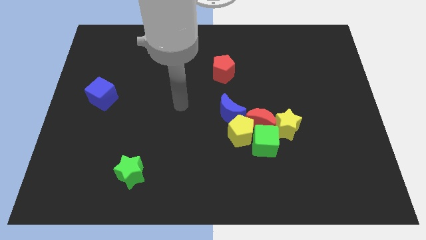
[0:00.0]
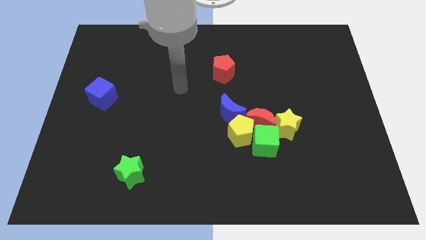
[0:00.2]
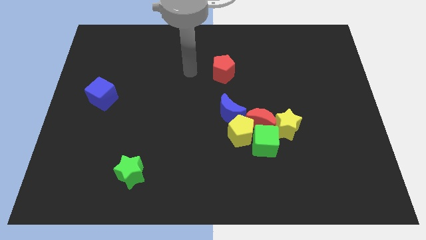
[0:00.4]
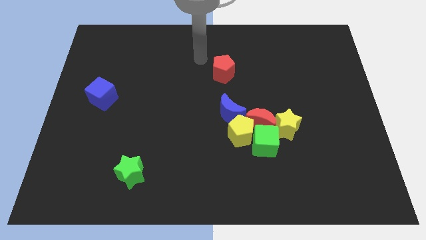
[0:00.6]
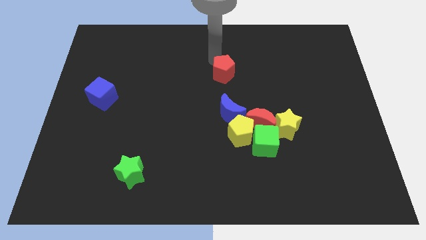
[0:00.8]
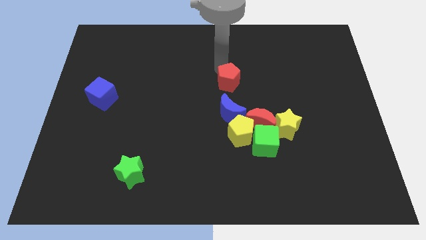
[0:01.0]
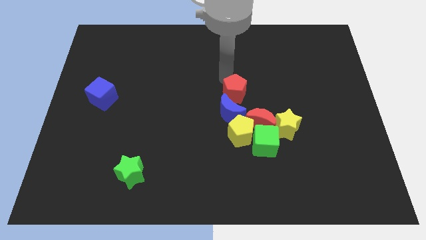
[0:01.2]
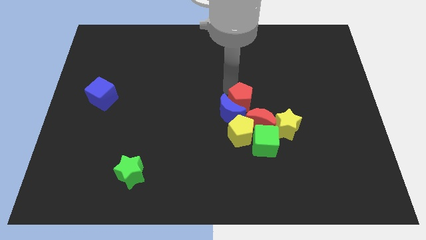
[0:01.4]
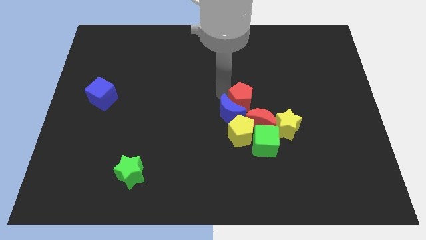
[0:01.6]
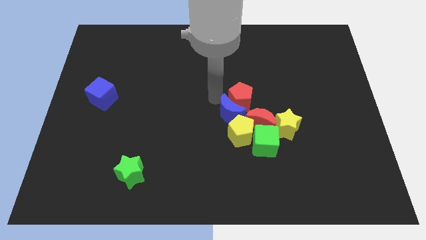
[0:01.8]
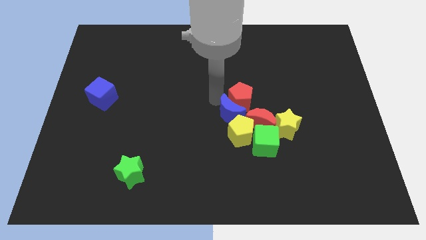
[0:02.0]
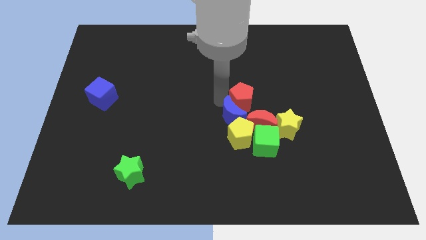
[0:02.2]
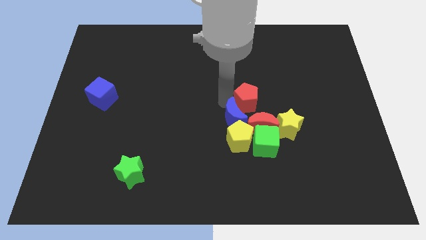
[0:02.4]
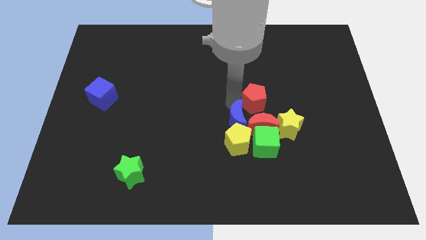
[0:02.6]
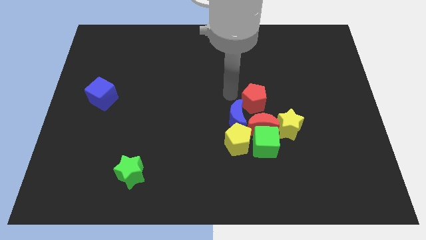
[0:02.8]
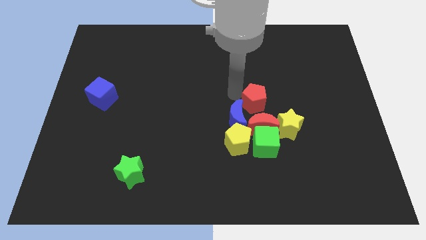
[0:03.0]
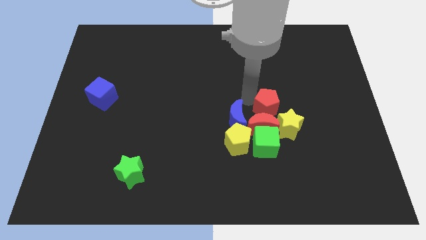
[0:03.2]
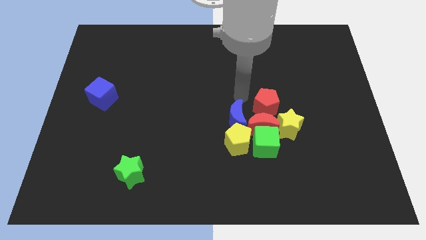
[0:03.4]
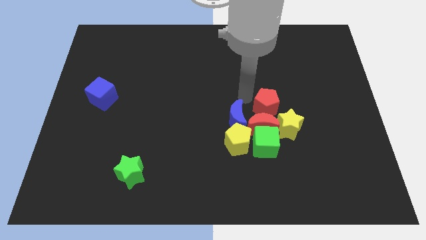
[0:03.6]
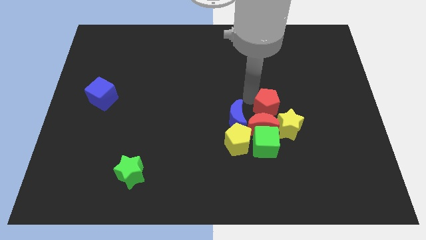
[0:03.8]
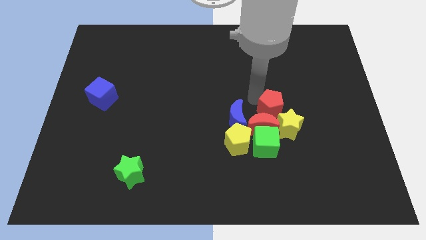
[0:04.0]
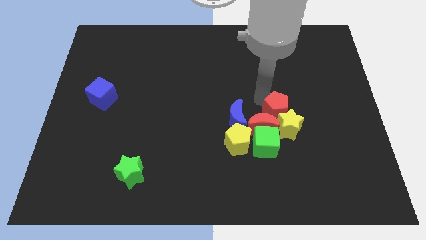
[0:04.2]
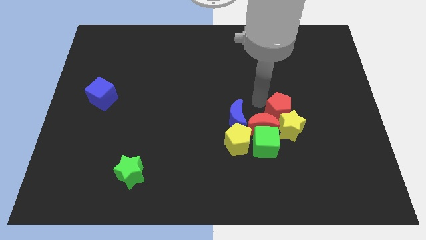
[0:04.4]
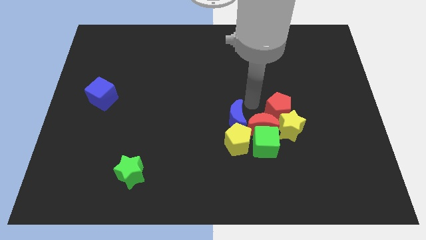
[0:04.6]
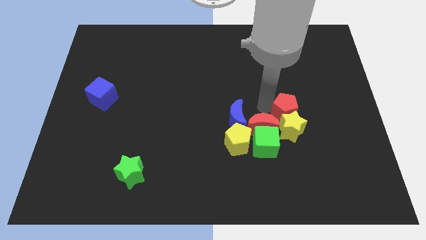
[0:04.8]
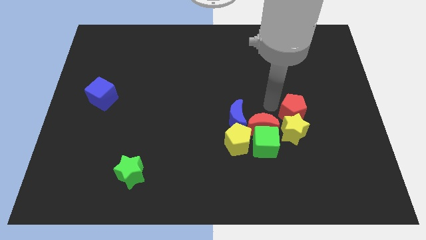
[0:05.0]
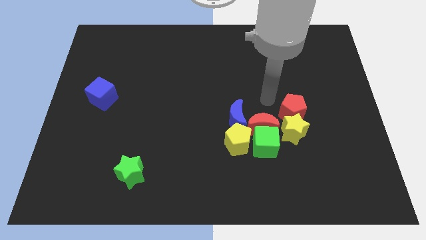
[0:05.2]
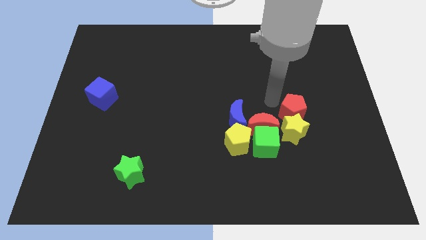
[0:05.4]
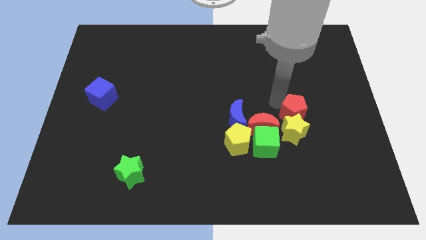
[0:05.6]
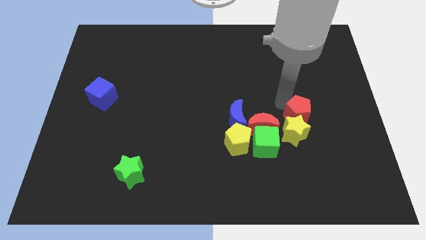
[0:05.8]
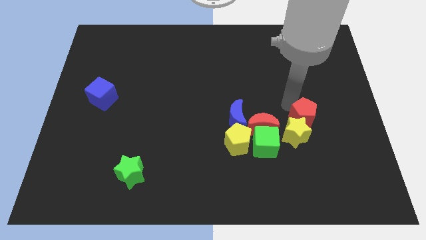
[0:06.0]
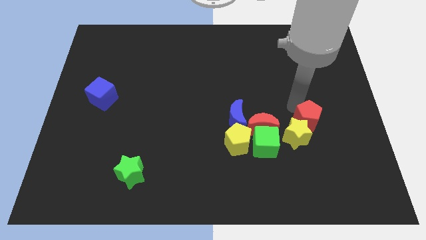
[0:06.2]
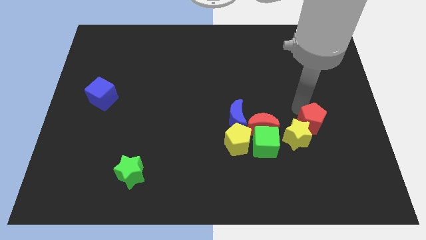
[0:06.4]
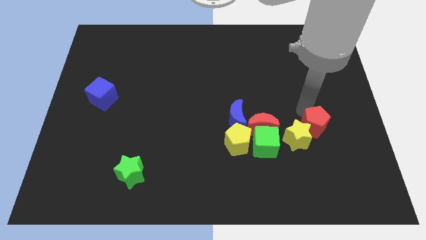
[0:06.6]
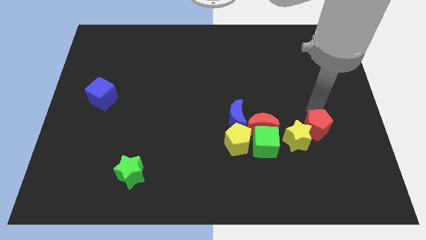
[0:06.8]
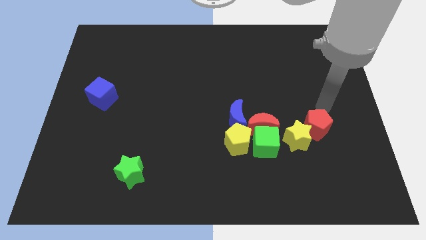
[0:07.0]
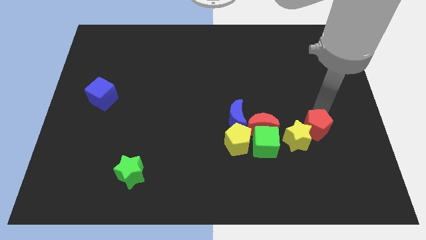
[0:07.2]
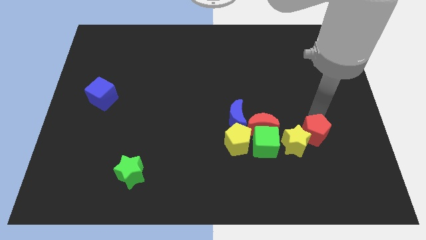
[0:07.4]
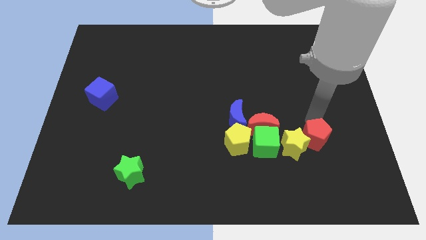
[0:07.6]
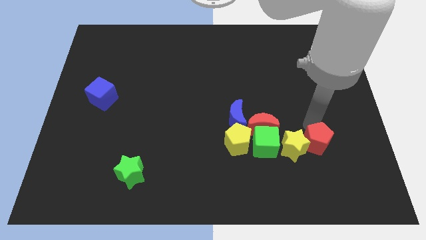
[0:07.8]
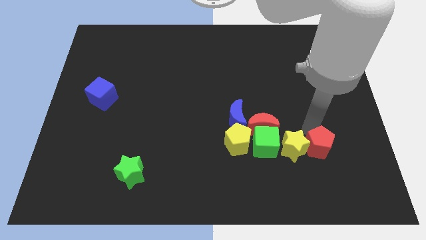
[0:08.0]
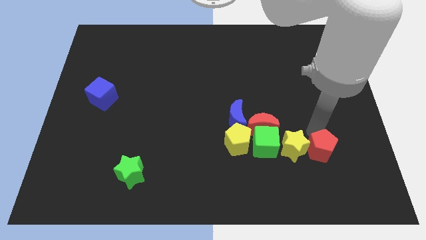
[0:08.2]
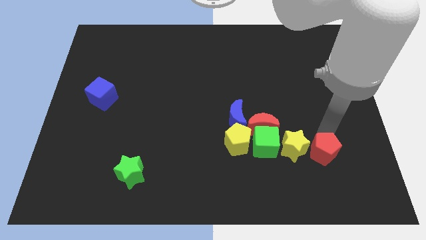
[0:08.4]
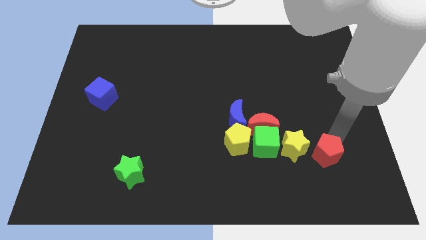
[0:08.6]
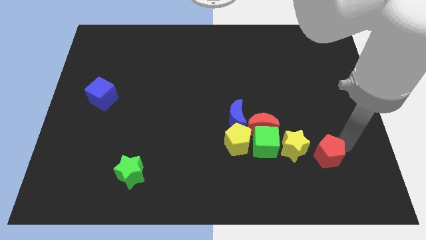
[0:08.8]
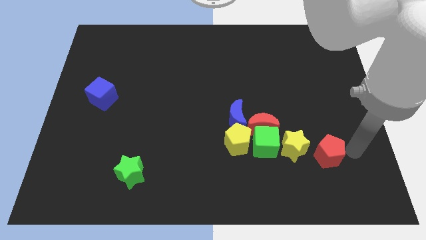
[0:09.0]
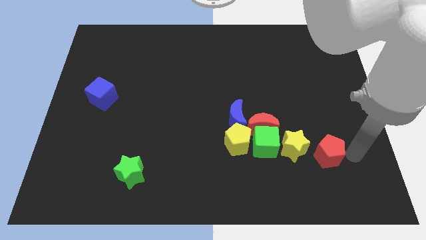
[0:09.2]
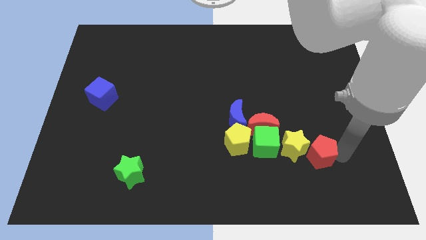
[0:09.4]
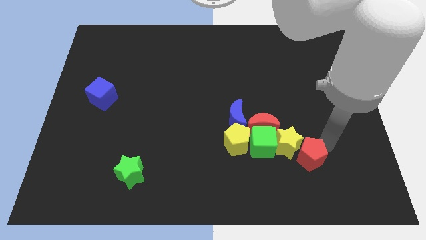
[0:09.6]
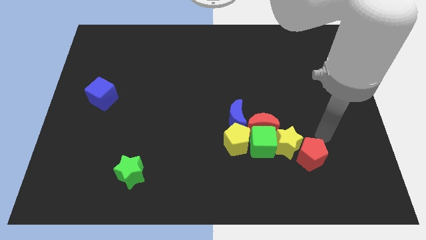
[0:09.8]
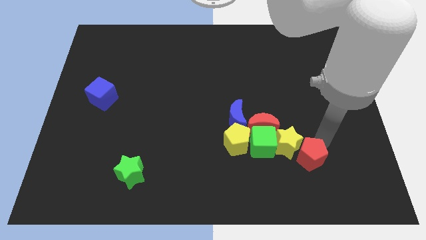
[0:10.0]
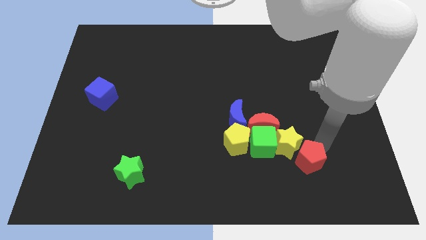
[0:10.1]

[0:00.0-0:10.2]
push the red pentagon to the bottom side of the yellow star

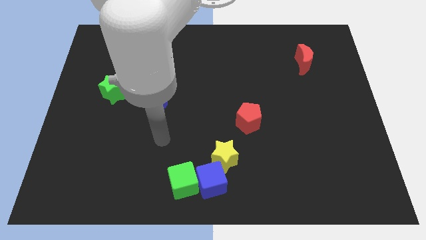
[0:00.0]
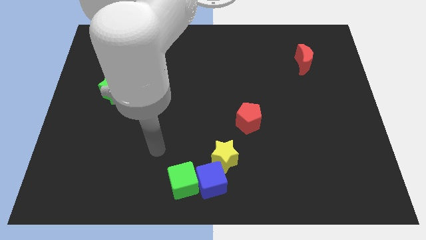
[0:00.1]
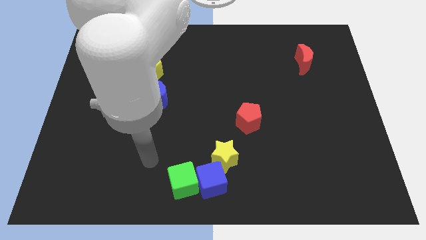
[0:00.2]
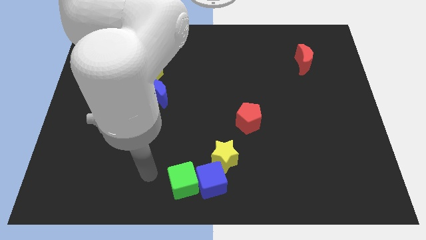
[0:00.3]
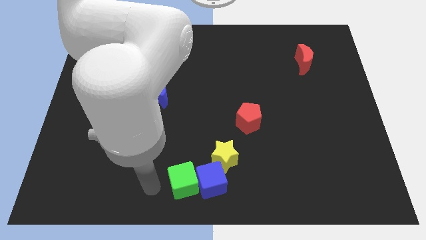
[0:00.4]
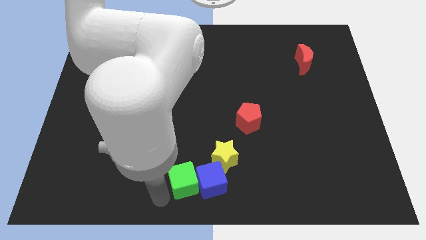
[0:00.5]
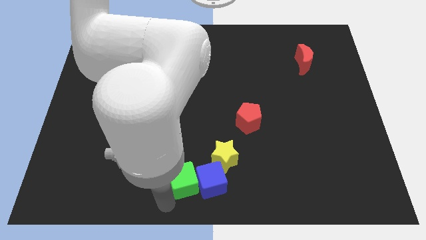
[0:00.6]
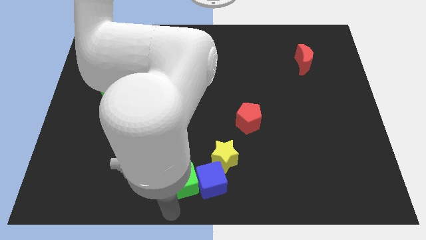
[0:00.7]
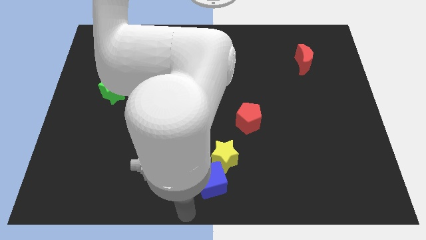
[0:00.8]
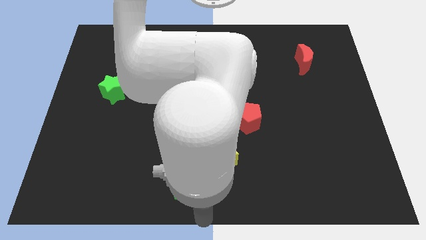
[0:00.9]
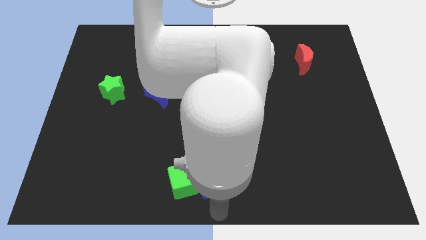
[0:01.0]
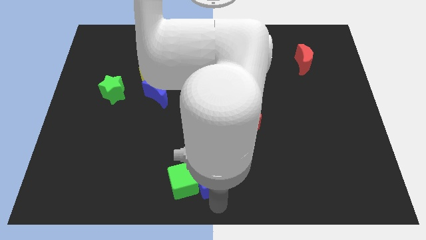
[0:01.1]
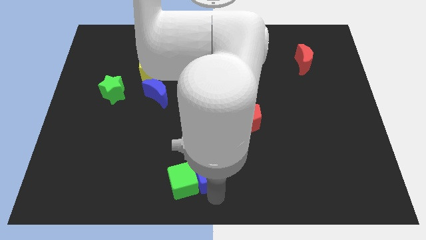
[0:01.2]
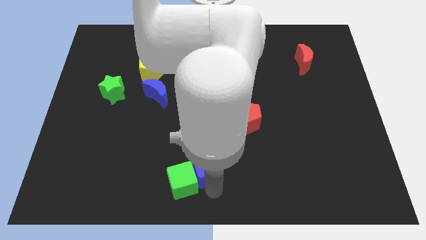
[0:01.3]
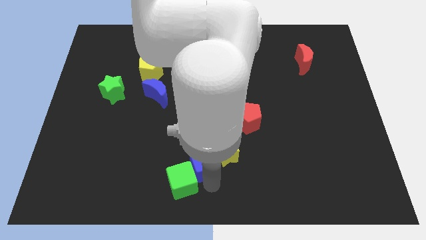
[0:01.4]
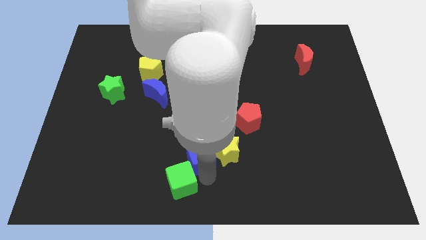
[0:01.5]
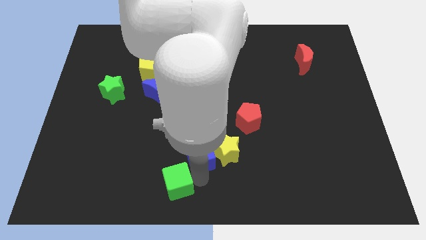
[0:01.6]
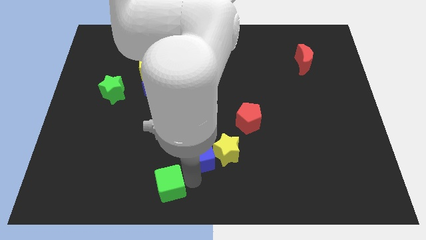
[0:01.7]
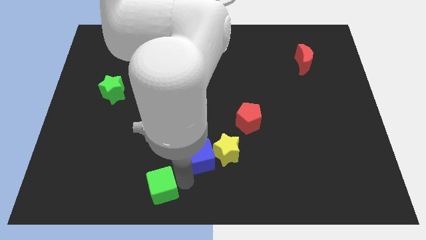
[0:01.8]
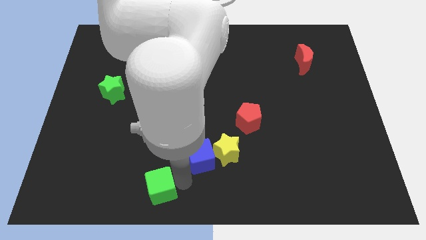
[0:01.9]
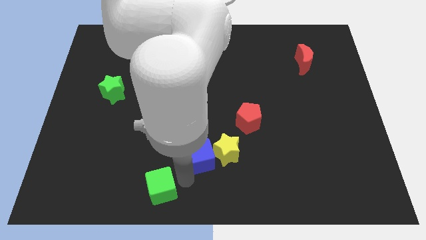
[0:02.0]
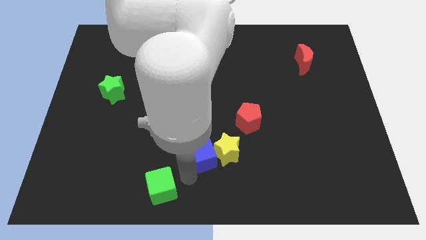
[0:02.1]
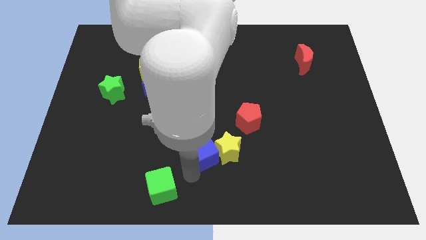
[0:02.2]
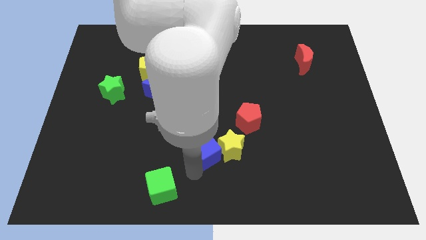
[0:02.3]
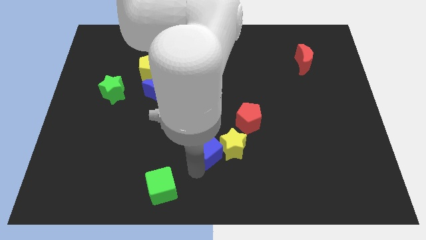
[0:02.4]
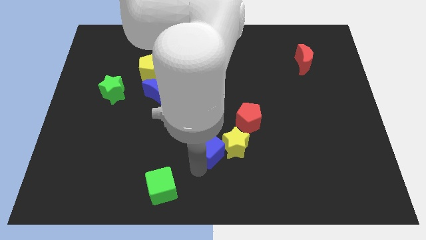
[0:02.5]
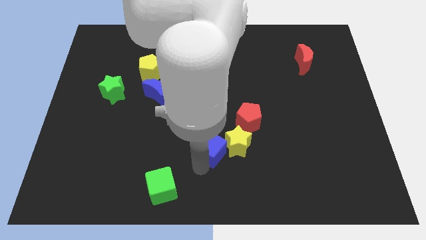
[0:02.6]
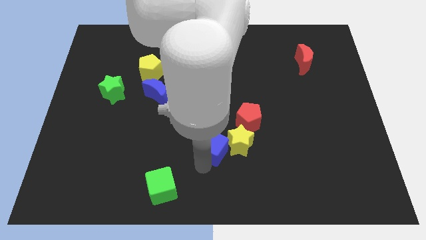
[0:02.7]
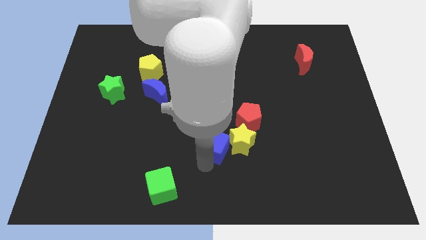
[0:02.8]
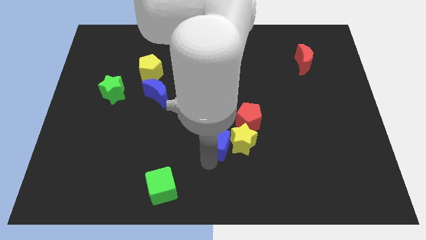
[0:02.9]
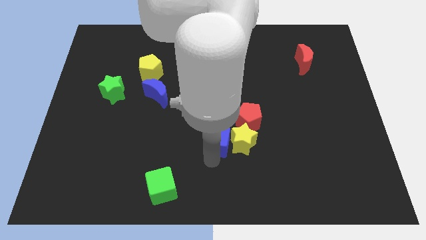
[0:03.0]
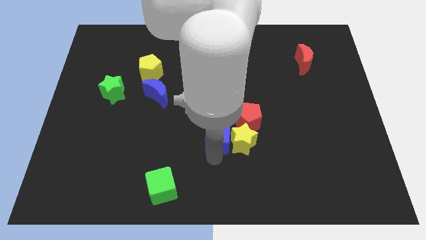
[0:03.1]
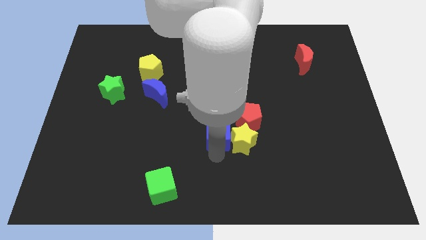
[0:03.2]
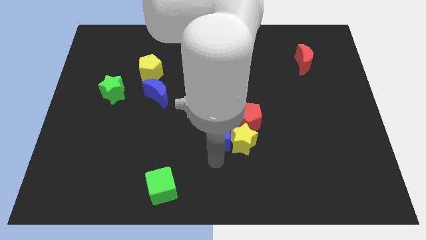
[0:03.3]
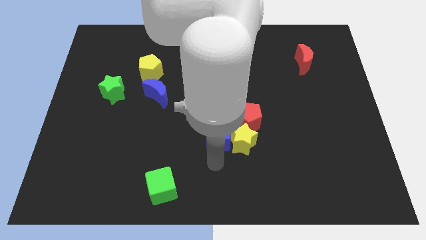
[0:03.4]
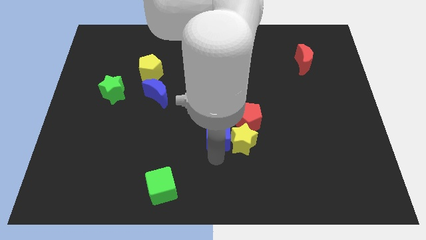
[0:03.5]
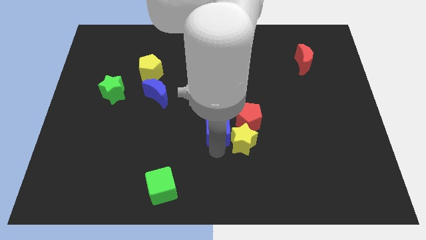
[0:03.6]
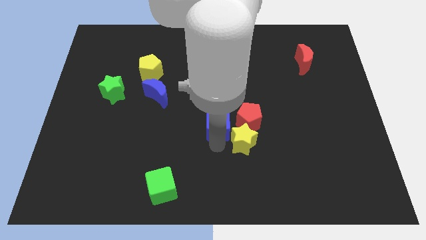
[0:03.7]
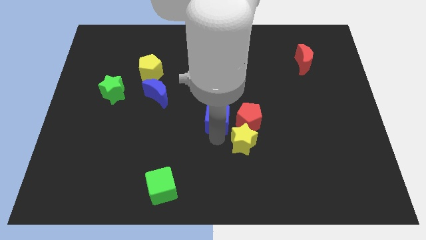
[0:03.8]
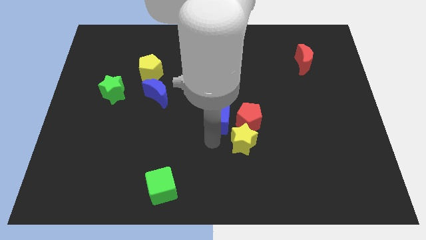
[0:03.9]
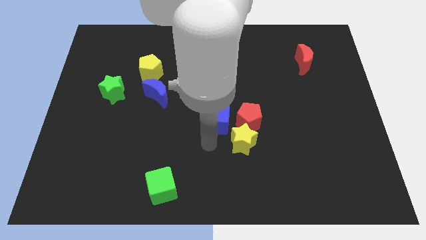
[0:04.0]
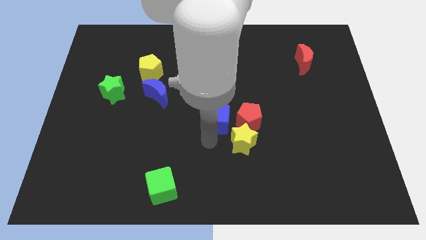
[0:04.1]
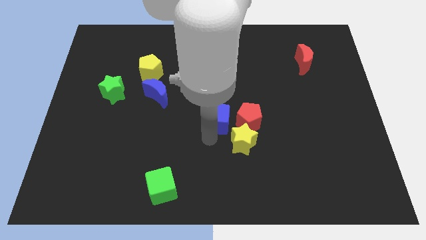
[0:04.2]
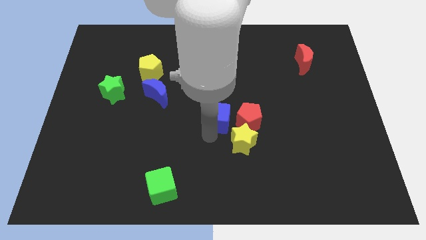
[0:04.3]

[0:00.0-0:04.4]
put the blue cube to the top left of the red pentagon
